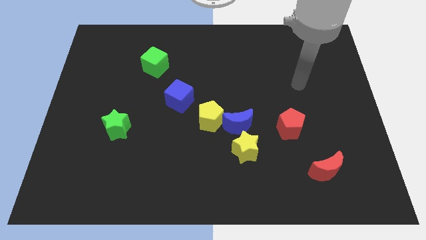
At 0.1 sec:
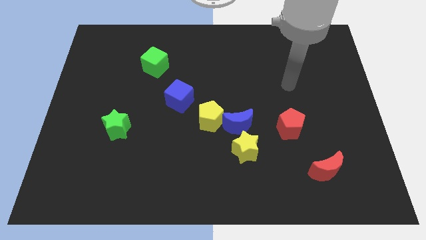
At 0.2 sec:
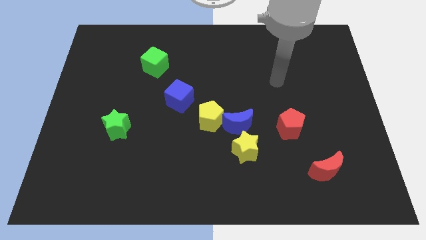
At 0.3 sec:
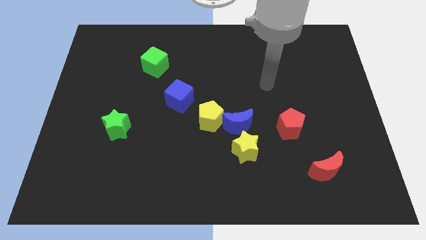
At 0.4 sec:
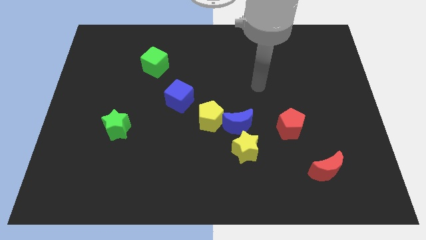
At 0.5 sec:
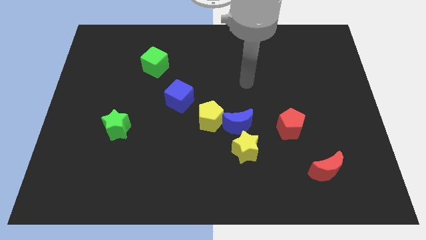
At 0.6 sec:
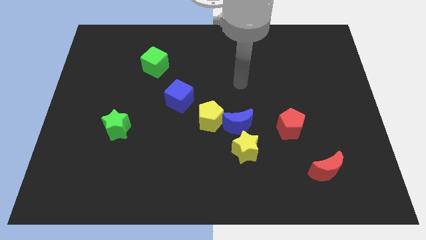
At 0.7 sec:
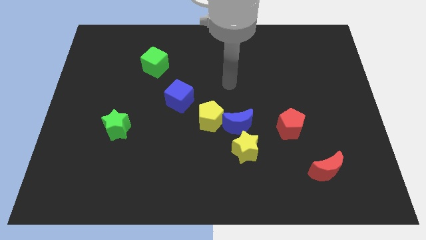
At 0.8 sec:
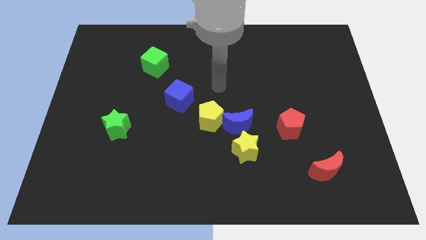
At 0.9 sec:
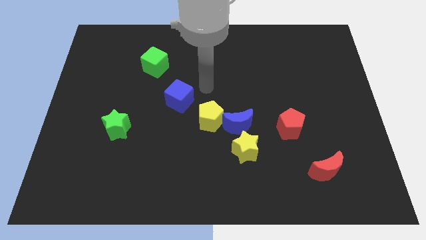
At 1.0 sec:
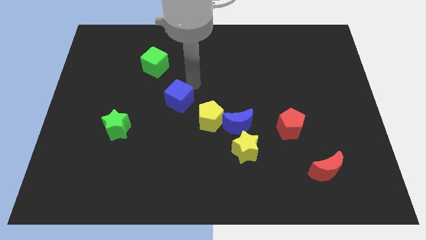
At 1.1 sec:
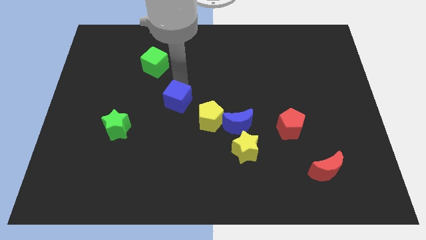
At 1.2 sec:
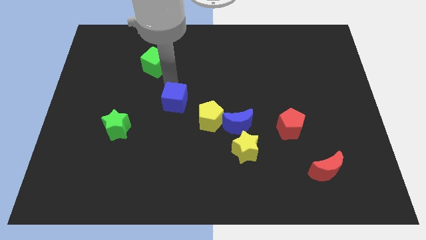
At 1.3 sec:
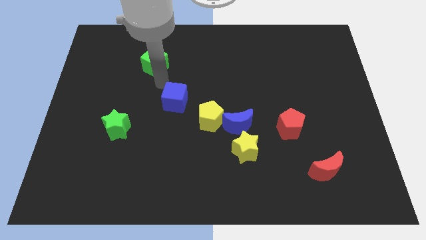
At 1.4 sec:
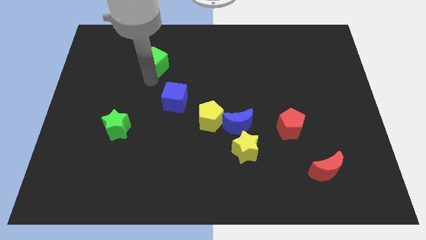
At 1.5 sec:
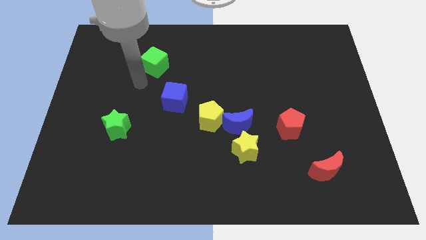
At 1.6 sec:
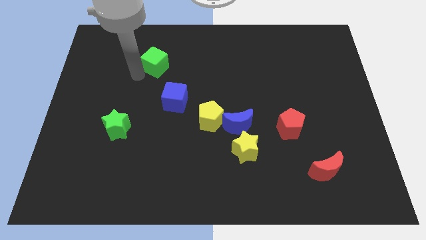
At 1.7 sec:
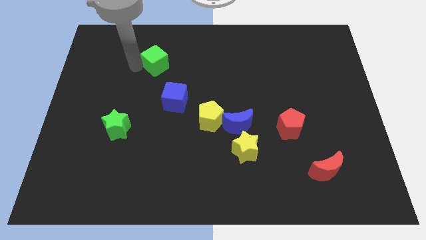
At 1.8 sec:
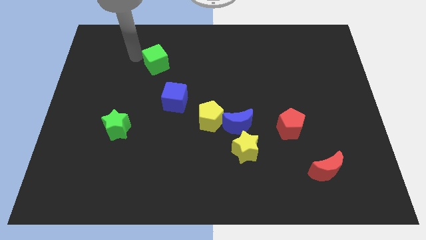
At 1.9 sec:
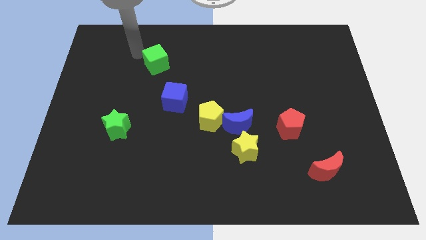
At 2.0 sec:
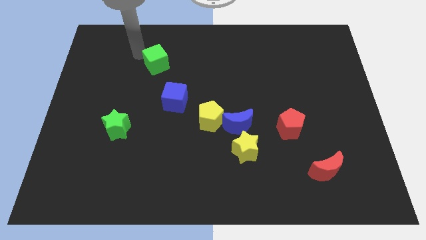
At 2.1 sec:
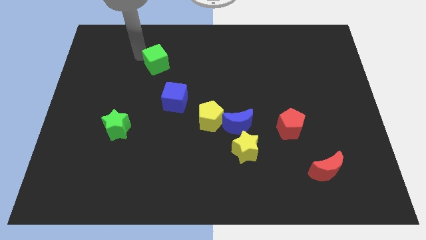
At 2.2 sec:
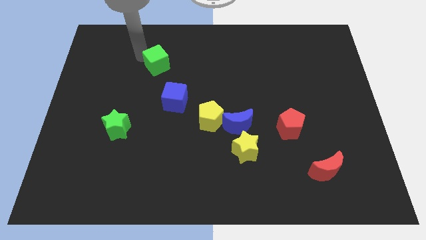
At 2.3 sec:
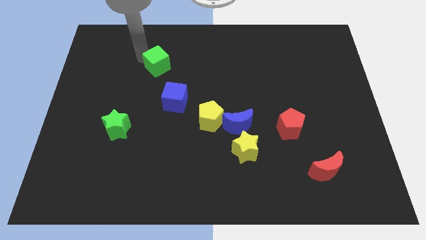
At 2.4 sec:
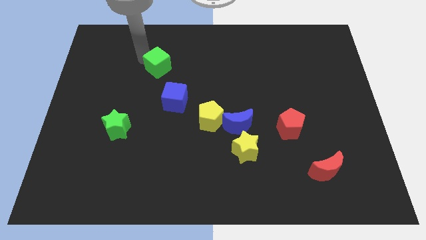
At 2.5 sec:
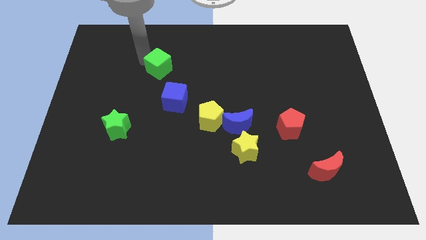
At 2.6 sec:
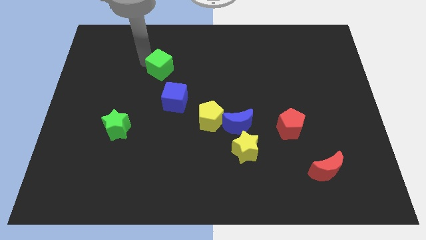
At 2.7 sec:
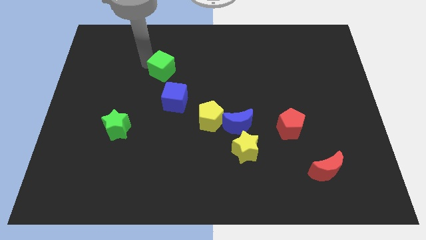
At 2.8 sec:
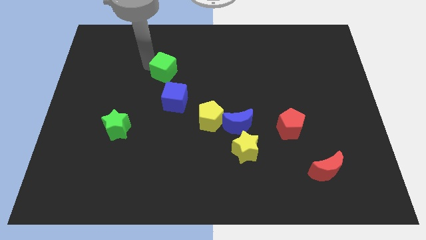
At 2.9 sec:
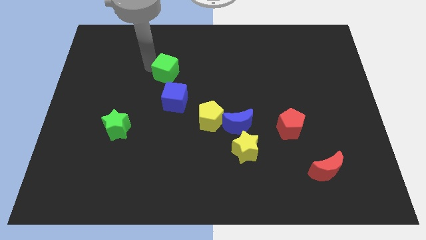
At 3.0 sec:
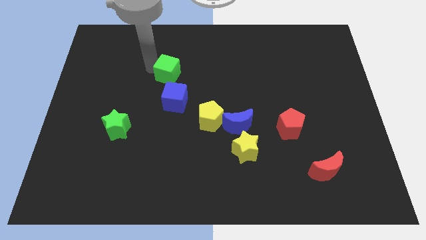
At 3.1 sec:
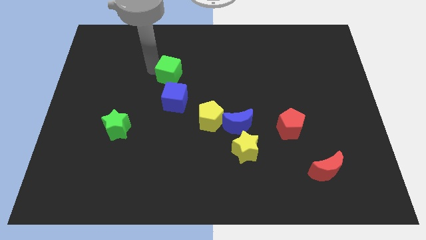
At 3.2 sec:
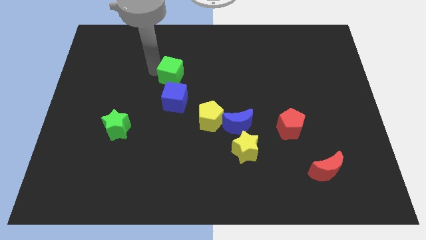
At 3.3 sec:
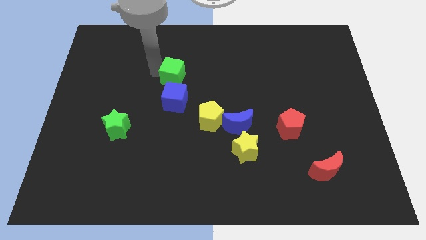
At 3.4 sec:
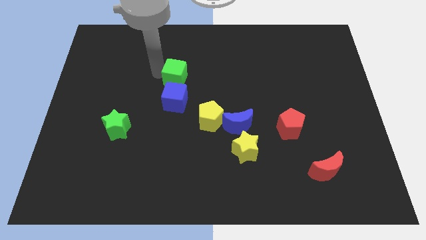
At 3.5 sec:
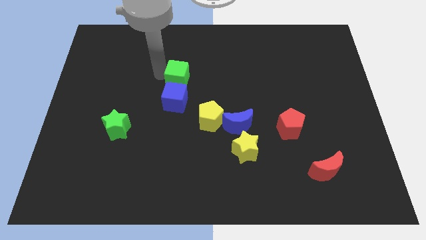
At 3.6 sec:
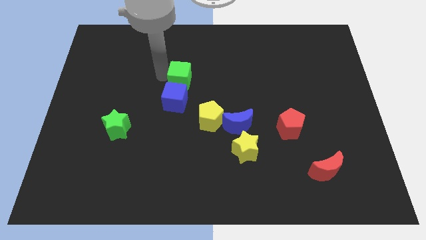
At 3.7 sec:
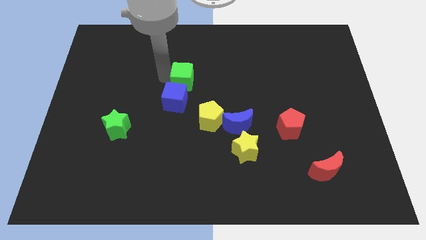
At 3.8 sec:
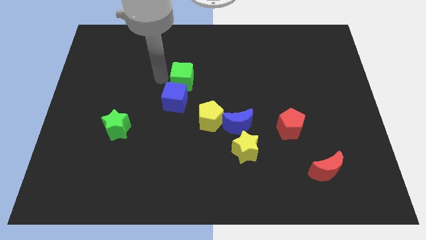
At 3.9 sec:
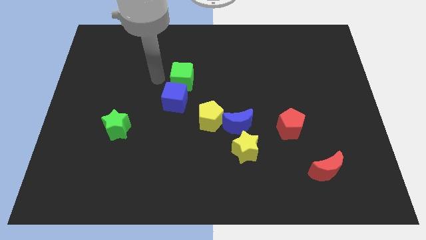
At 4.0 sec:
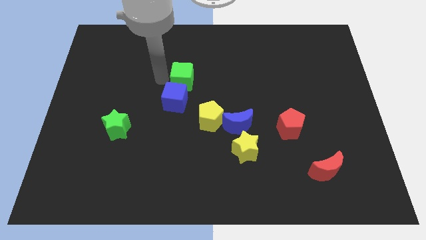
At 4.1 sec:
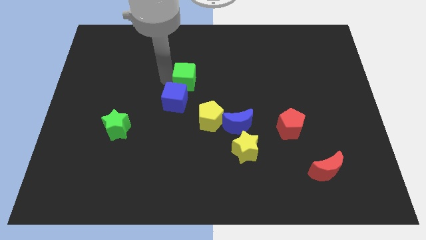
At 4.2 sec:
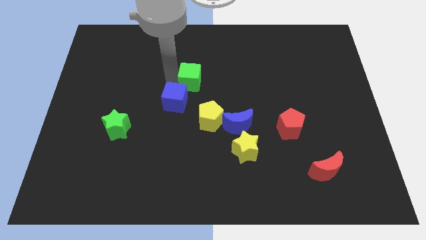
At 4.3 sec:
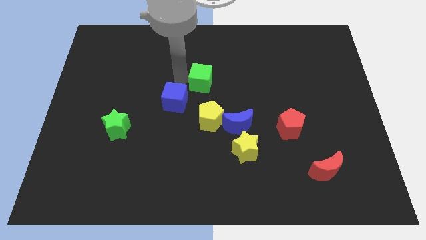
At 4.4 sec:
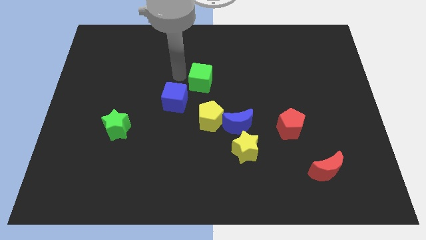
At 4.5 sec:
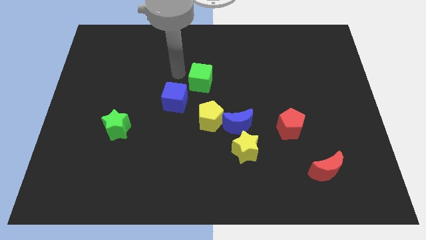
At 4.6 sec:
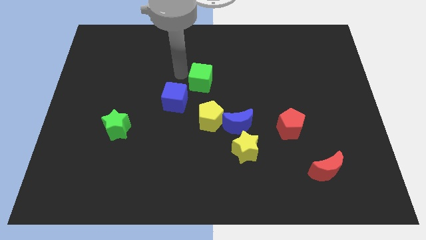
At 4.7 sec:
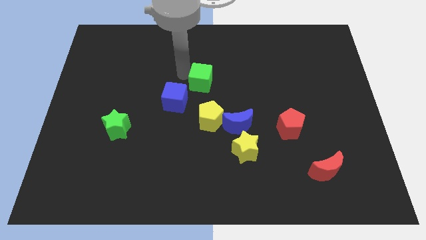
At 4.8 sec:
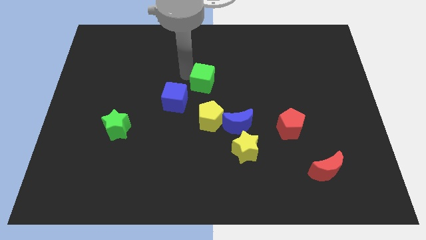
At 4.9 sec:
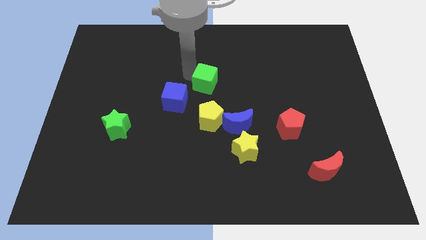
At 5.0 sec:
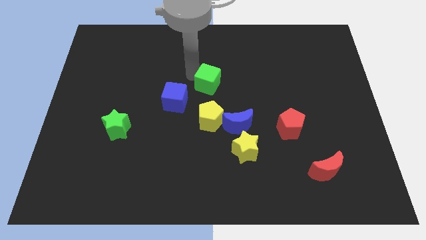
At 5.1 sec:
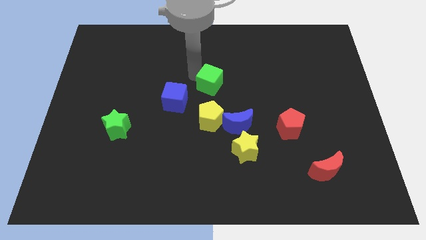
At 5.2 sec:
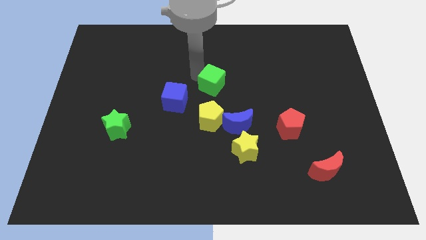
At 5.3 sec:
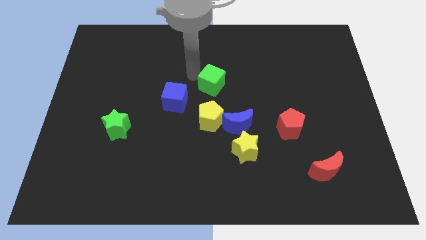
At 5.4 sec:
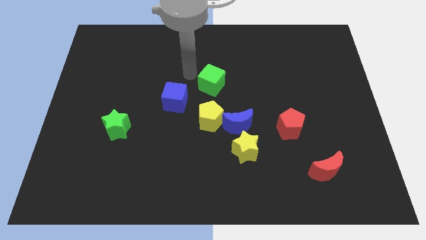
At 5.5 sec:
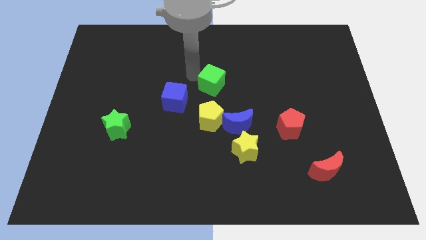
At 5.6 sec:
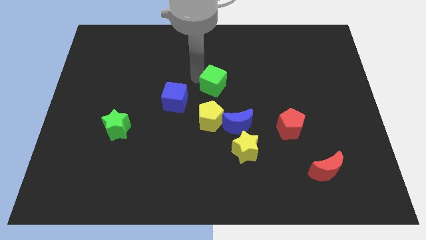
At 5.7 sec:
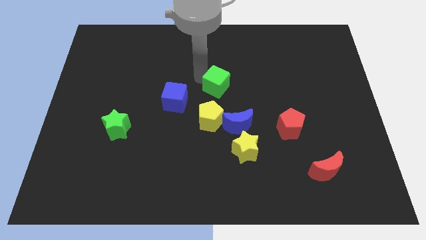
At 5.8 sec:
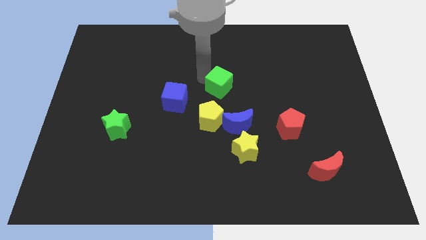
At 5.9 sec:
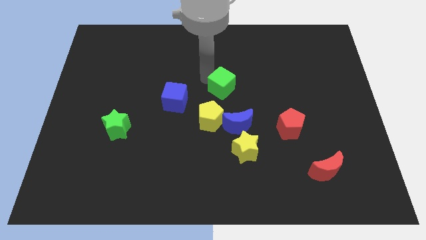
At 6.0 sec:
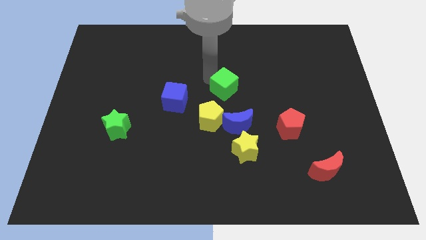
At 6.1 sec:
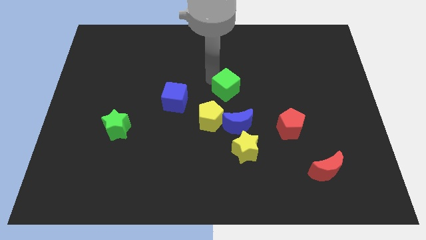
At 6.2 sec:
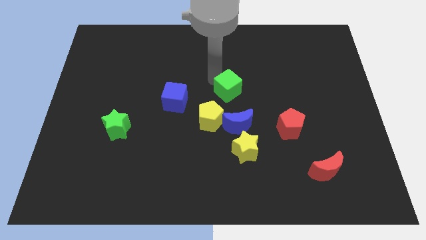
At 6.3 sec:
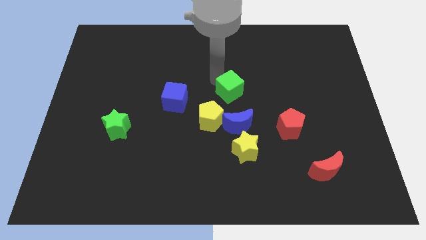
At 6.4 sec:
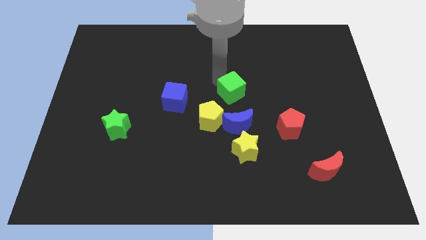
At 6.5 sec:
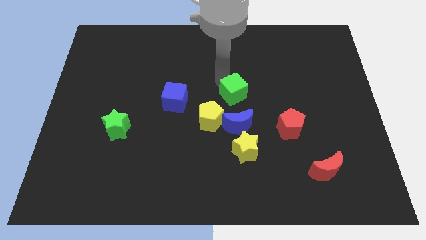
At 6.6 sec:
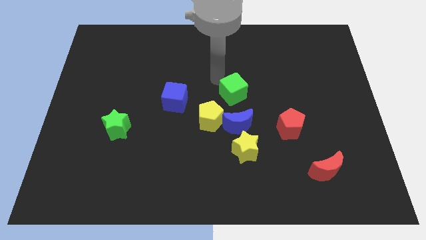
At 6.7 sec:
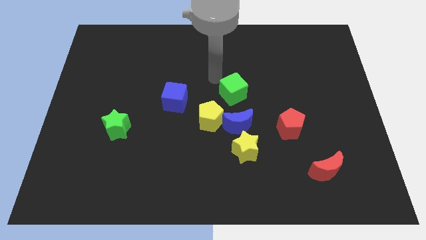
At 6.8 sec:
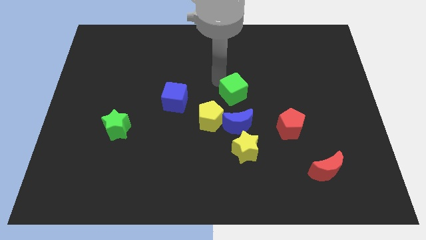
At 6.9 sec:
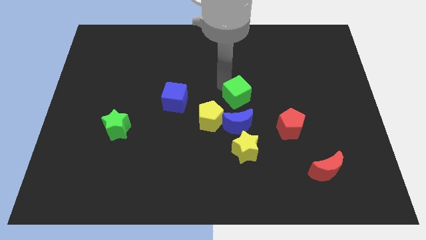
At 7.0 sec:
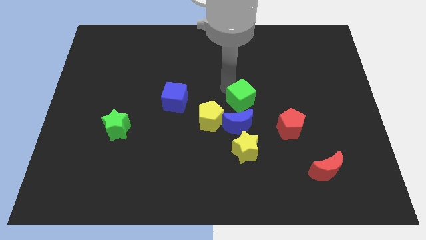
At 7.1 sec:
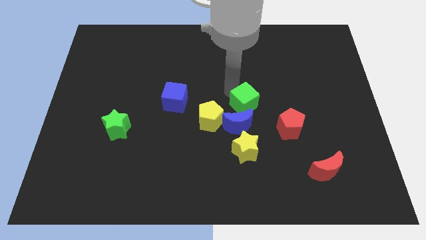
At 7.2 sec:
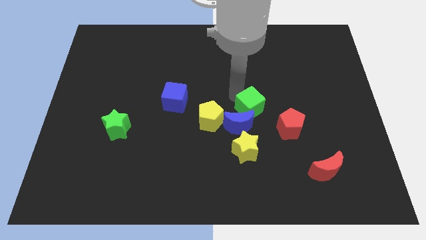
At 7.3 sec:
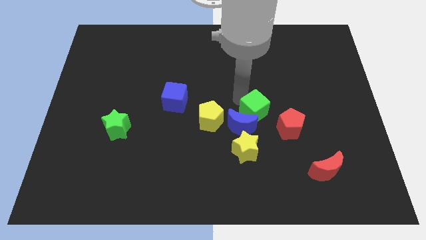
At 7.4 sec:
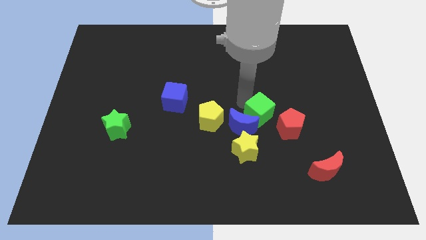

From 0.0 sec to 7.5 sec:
move the green cube to the top right side of the yellow star

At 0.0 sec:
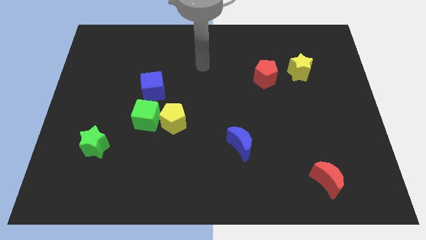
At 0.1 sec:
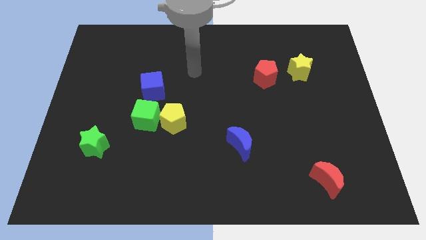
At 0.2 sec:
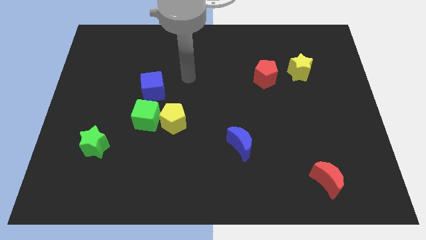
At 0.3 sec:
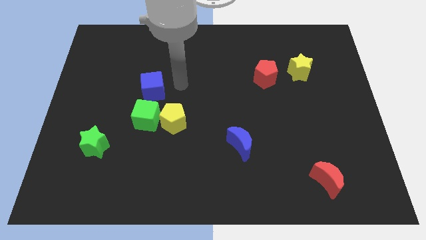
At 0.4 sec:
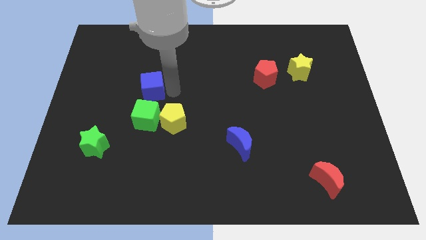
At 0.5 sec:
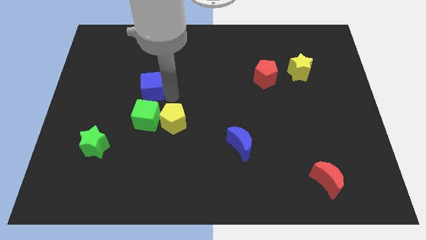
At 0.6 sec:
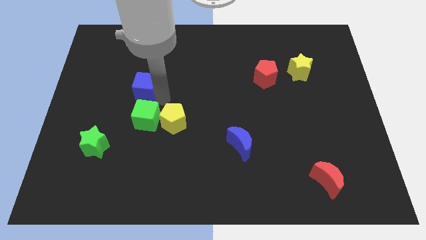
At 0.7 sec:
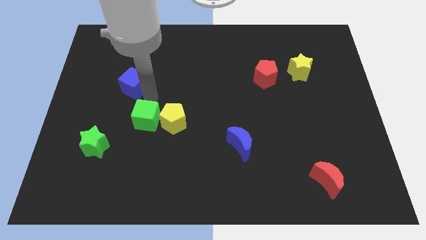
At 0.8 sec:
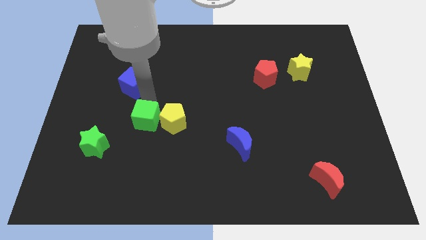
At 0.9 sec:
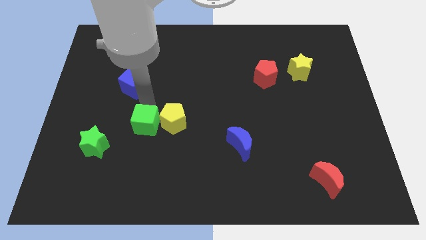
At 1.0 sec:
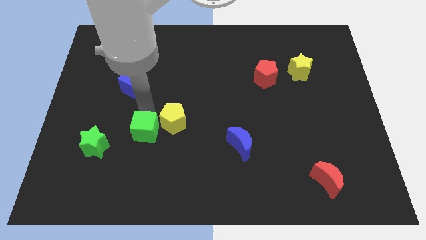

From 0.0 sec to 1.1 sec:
move the green cube just right of the green star
